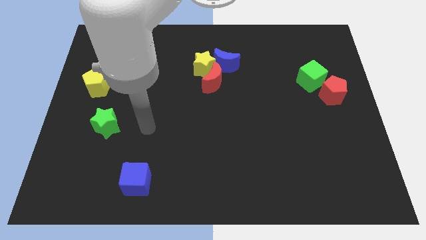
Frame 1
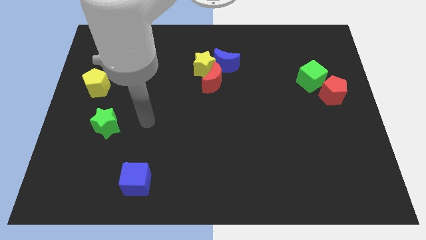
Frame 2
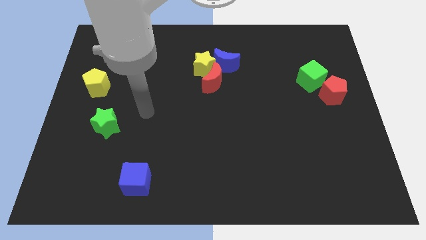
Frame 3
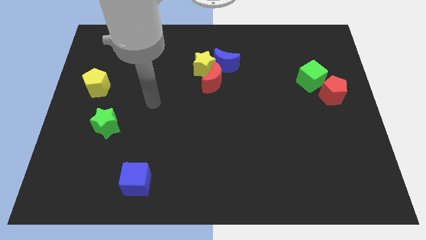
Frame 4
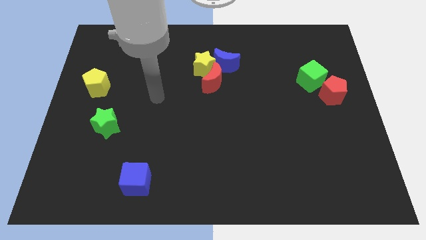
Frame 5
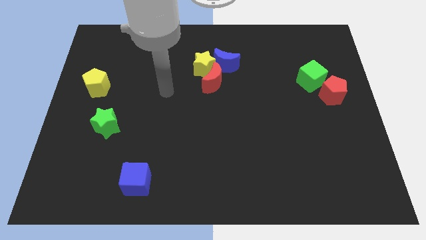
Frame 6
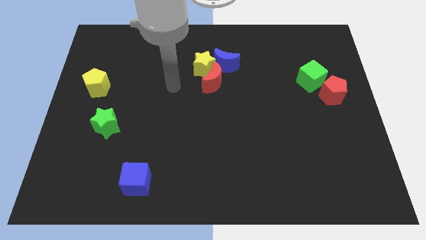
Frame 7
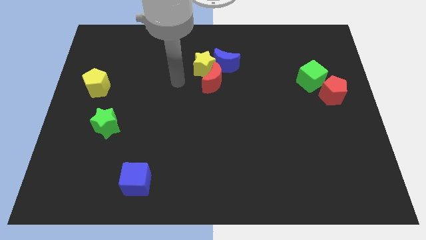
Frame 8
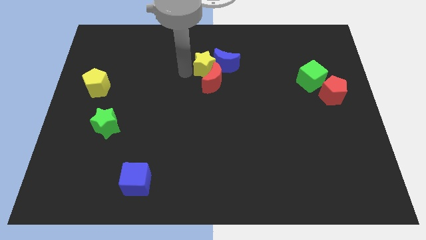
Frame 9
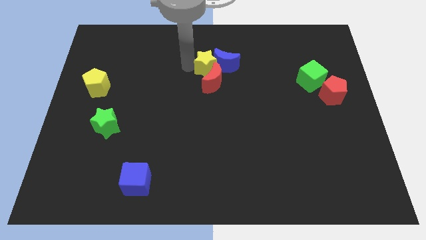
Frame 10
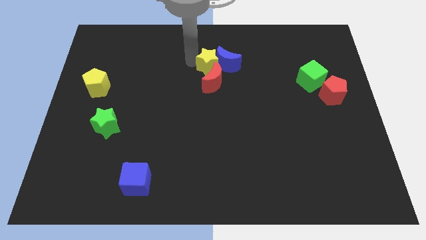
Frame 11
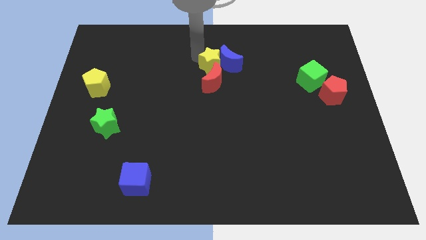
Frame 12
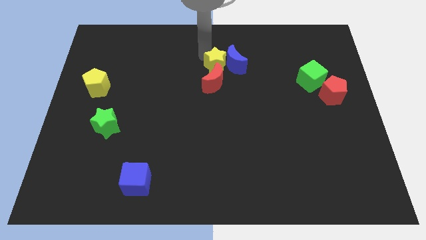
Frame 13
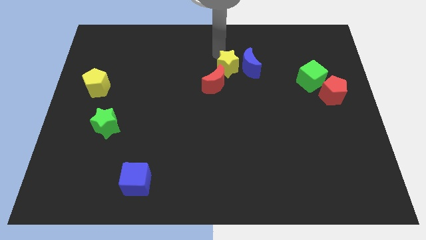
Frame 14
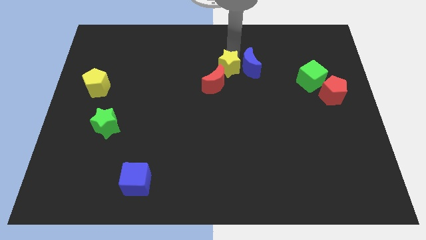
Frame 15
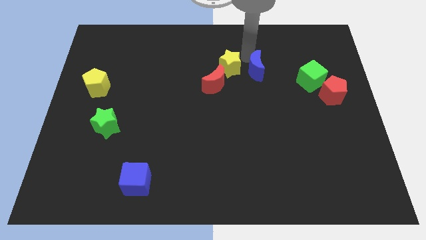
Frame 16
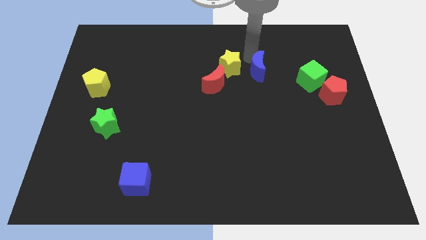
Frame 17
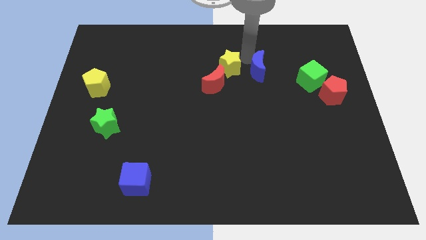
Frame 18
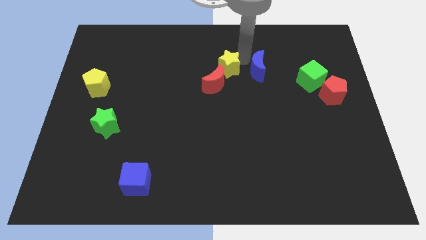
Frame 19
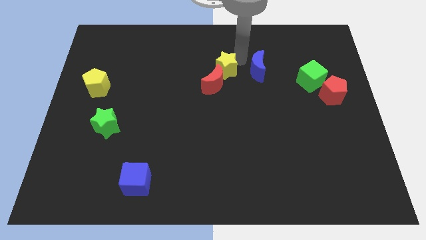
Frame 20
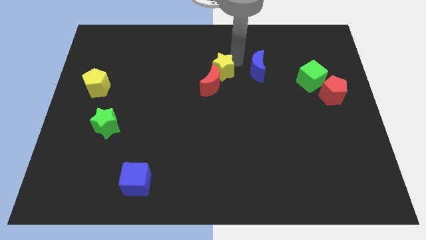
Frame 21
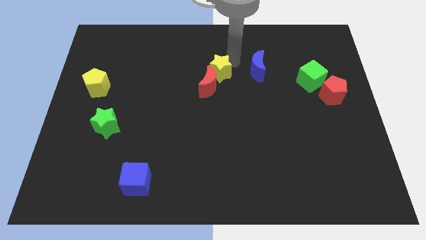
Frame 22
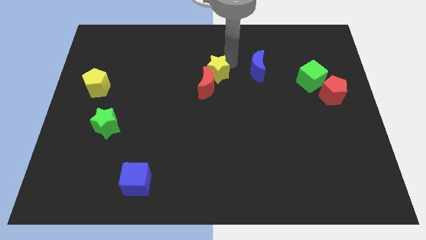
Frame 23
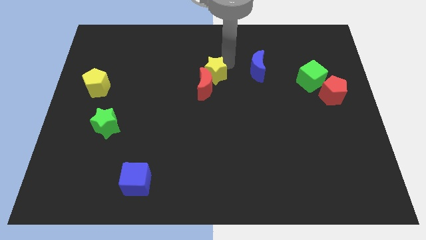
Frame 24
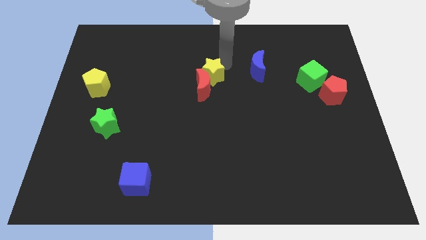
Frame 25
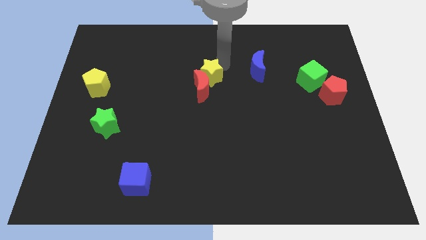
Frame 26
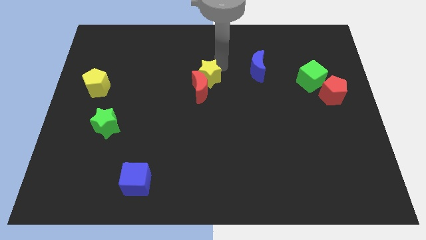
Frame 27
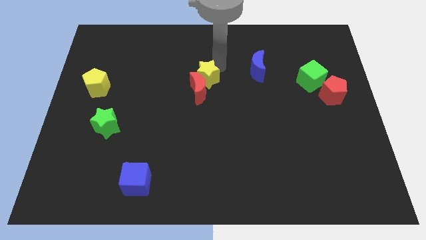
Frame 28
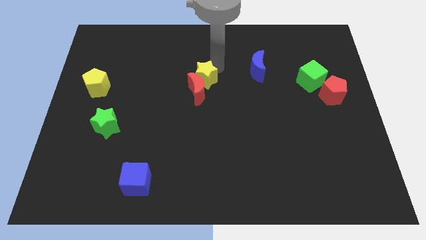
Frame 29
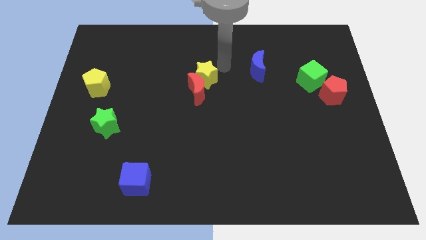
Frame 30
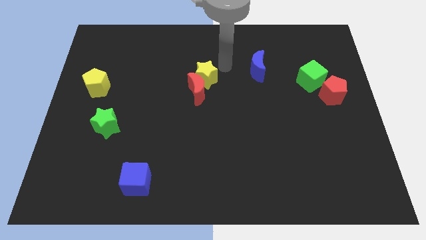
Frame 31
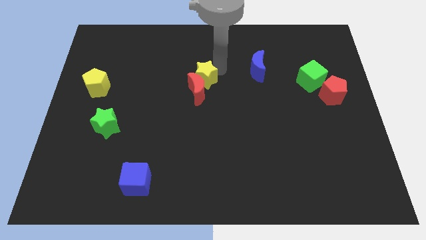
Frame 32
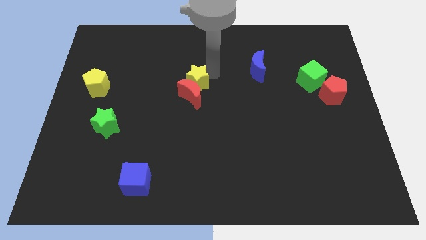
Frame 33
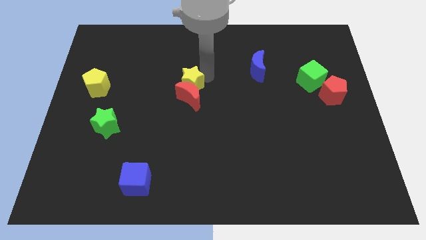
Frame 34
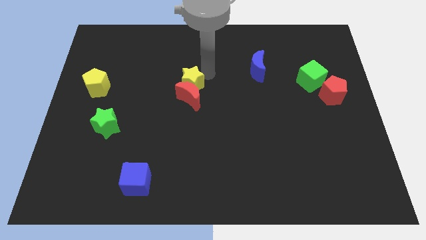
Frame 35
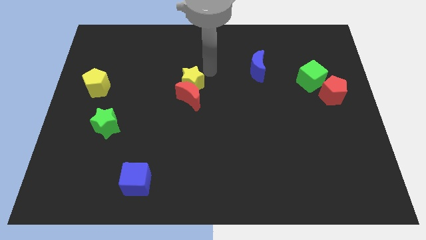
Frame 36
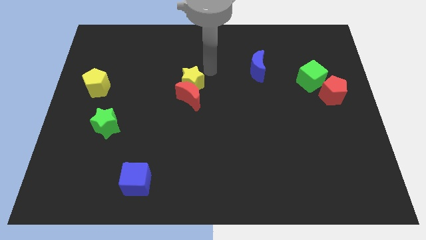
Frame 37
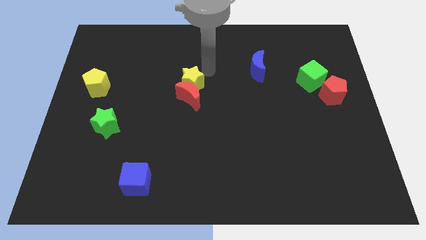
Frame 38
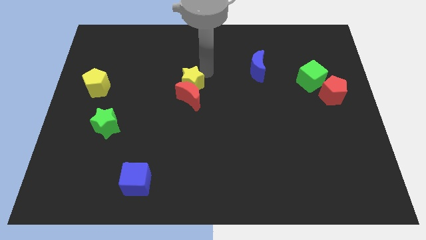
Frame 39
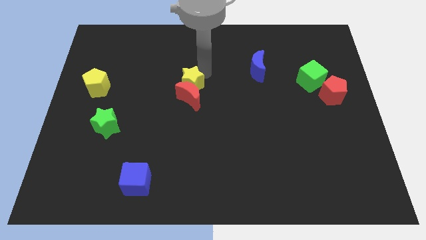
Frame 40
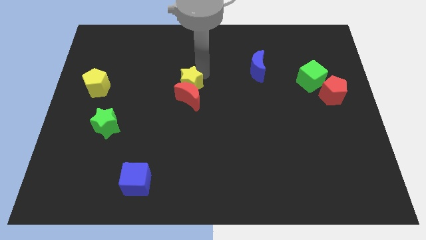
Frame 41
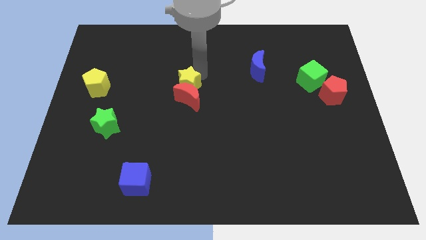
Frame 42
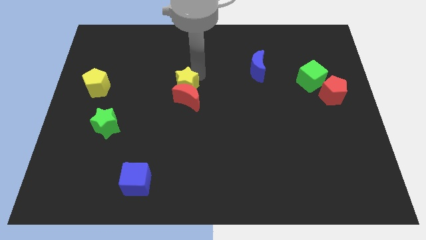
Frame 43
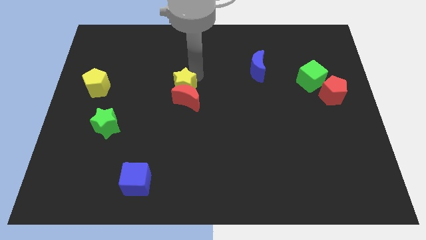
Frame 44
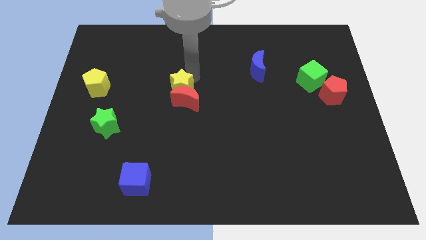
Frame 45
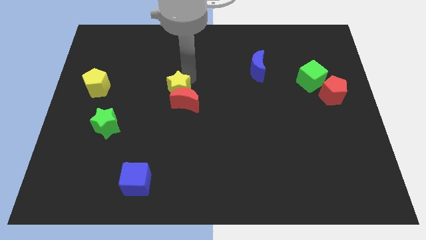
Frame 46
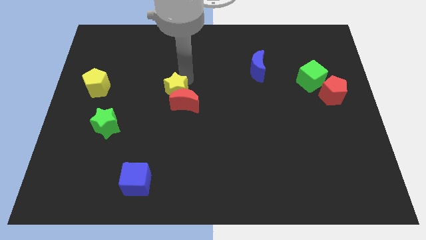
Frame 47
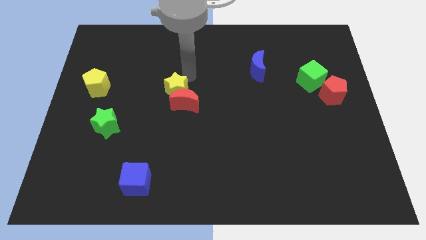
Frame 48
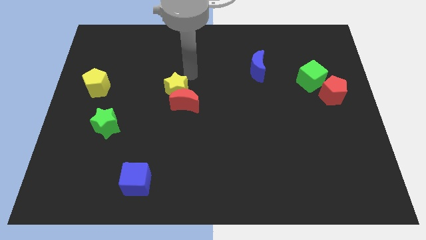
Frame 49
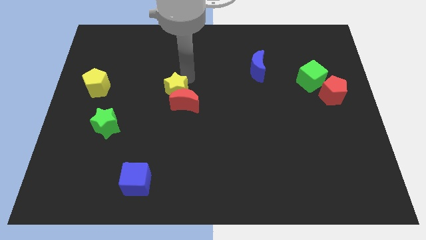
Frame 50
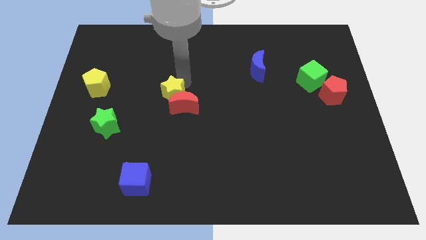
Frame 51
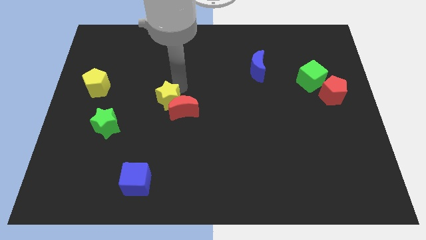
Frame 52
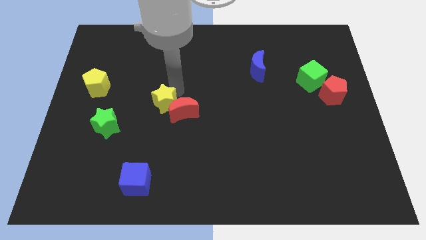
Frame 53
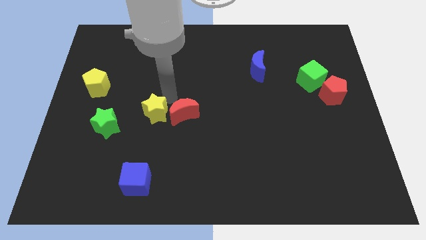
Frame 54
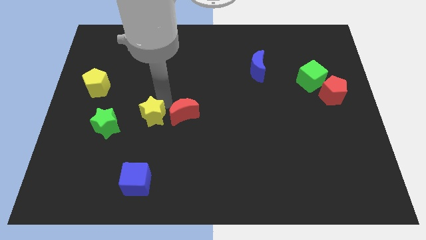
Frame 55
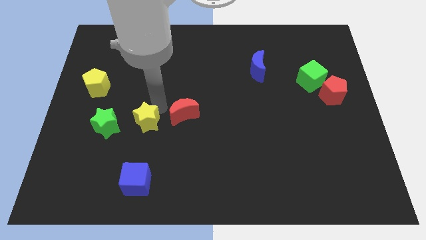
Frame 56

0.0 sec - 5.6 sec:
move the yellow star to the top of the blue cube
